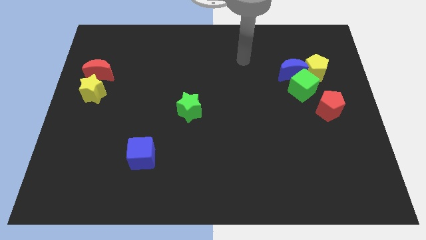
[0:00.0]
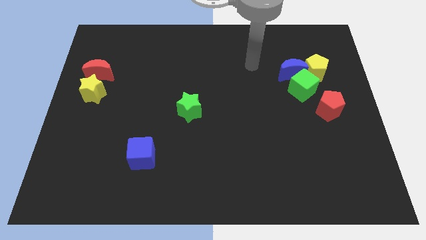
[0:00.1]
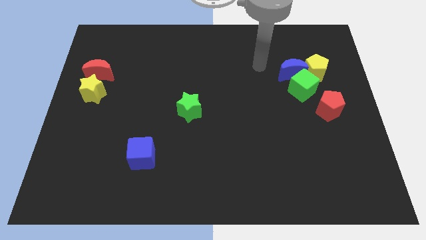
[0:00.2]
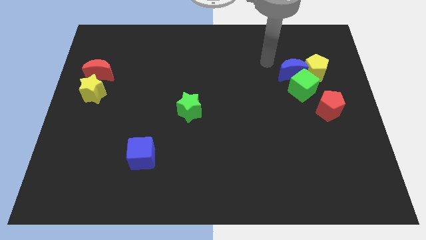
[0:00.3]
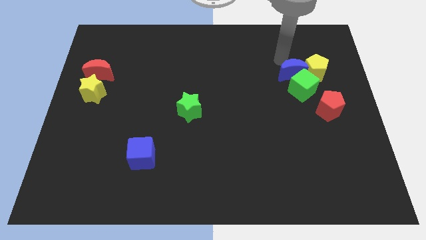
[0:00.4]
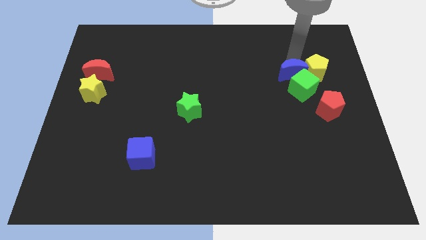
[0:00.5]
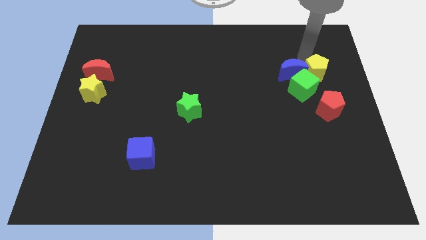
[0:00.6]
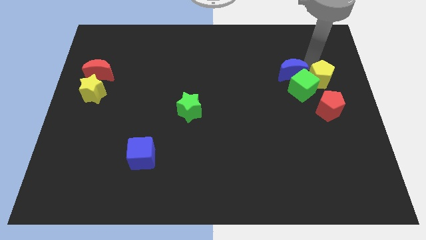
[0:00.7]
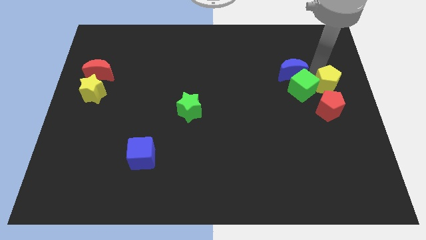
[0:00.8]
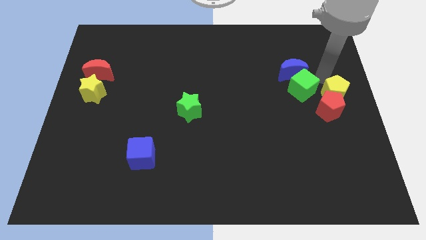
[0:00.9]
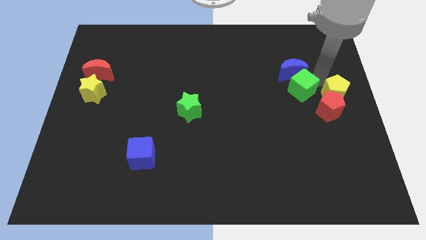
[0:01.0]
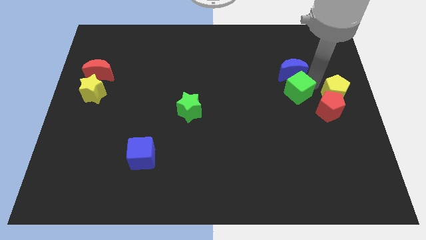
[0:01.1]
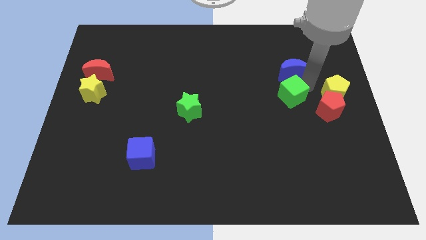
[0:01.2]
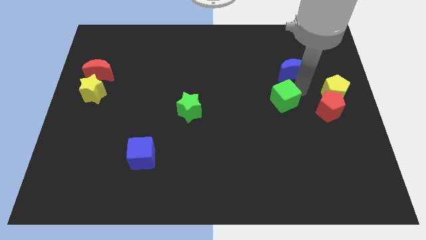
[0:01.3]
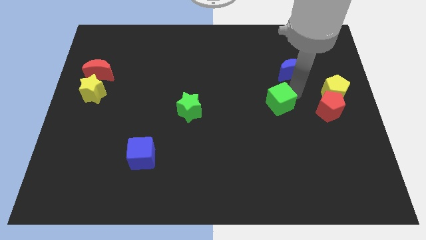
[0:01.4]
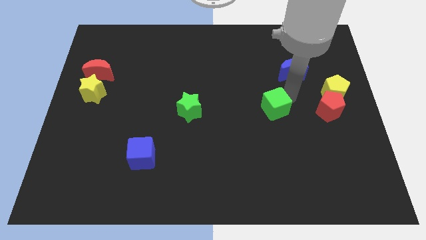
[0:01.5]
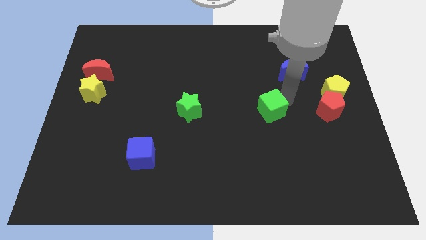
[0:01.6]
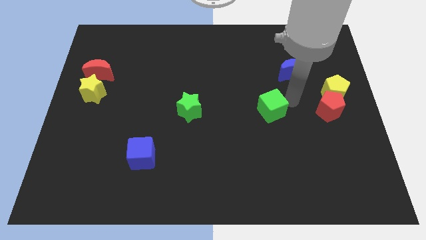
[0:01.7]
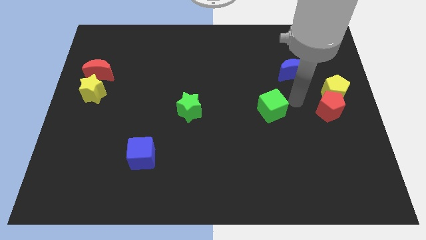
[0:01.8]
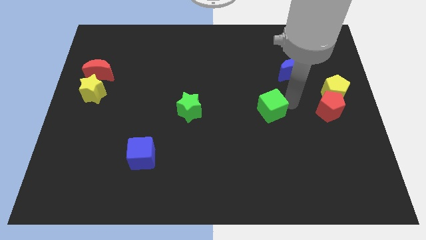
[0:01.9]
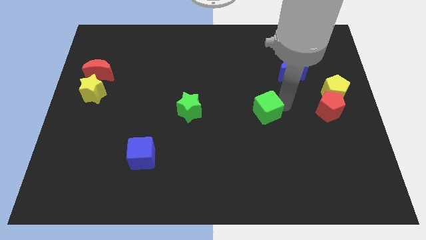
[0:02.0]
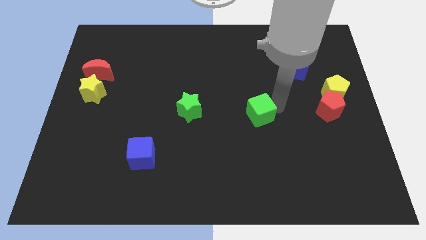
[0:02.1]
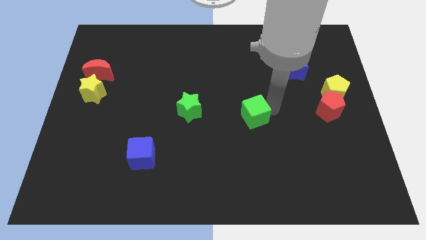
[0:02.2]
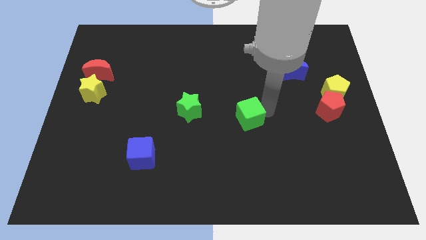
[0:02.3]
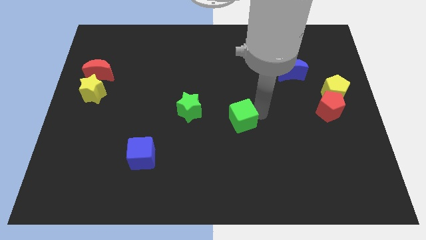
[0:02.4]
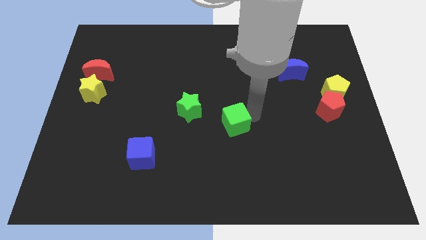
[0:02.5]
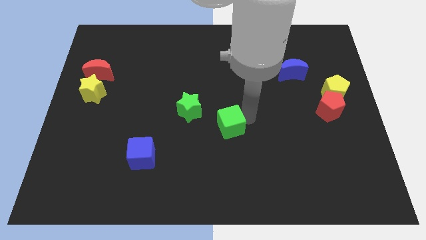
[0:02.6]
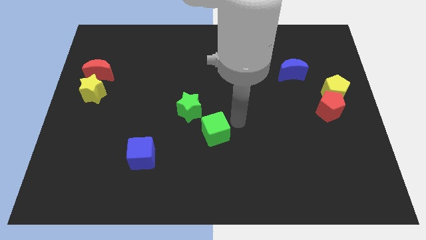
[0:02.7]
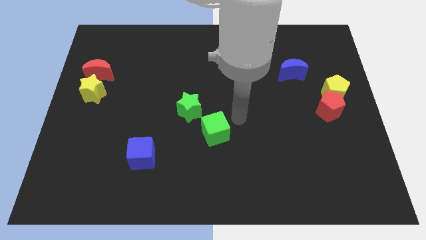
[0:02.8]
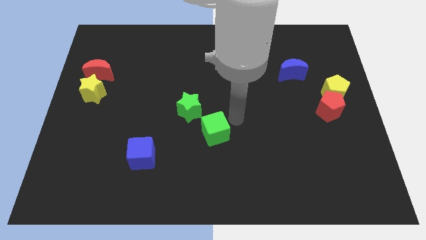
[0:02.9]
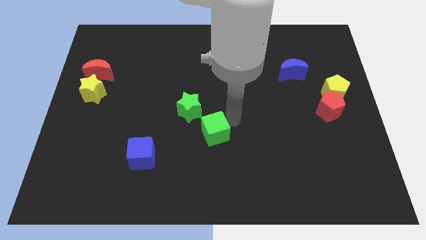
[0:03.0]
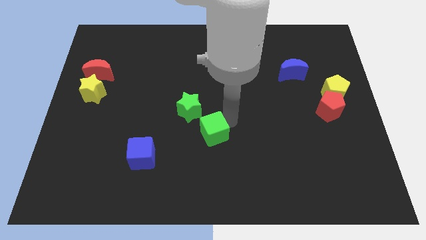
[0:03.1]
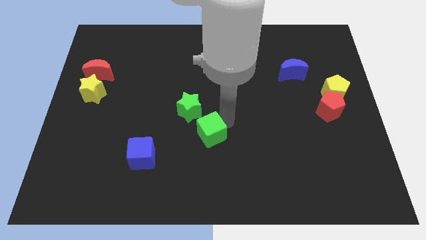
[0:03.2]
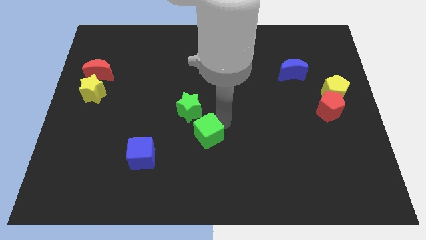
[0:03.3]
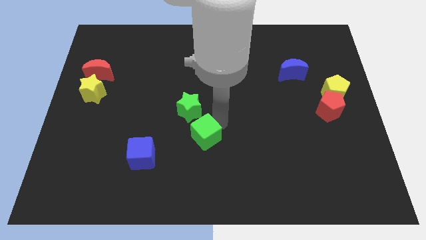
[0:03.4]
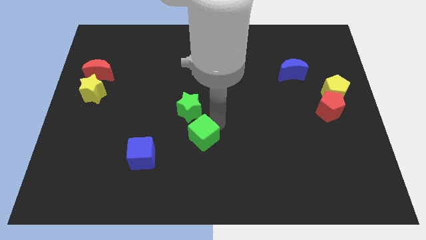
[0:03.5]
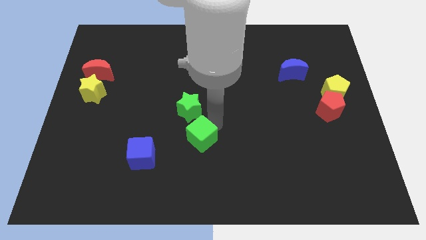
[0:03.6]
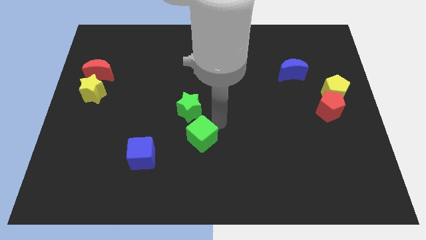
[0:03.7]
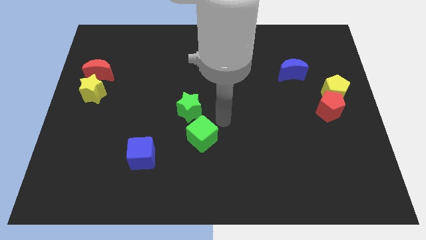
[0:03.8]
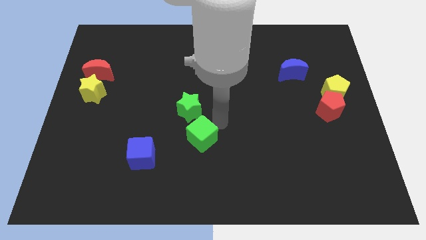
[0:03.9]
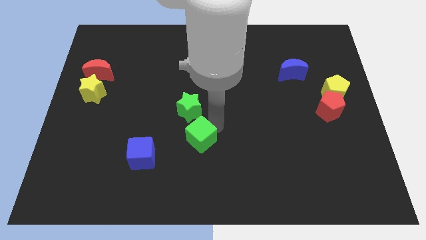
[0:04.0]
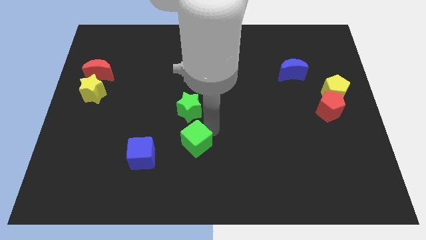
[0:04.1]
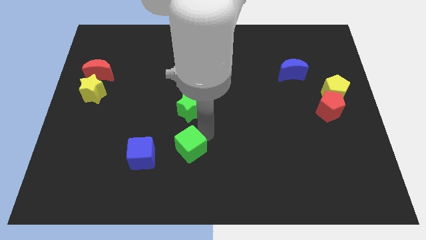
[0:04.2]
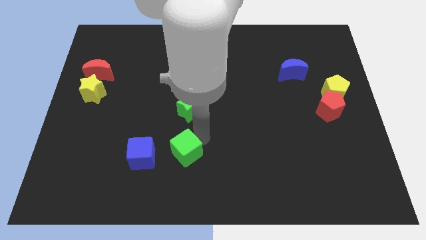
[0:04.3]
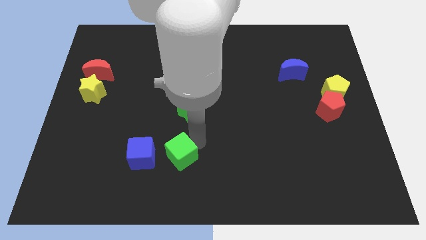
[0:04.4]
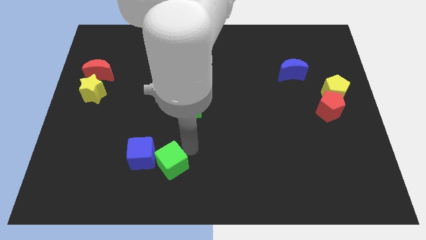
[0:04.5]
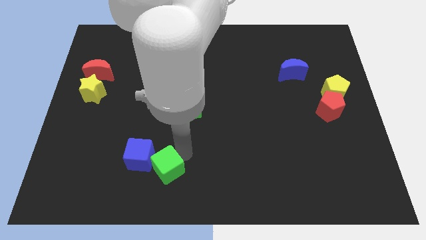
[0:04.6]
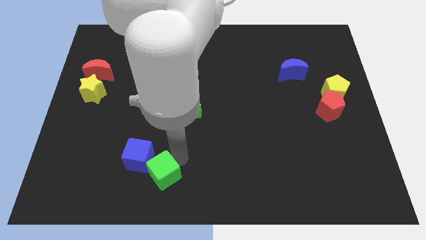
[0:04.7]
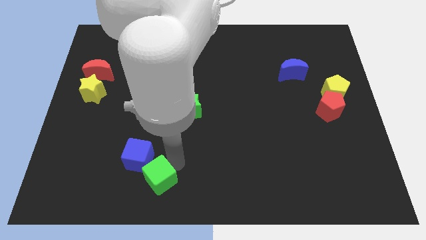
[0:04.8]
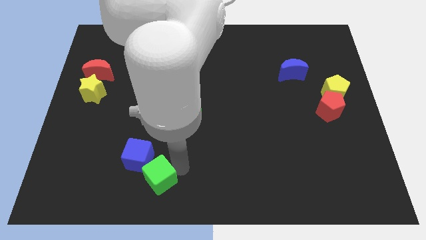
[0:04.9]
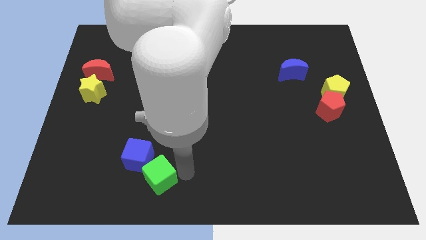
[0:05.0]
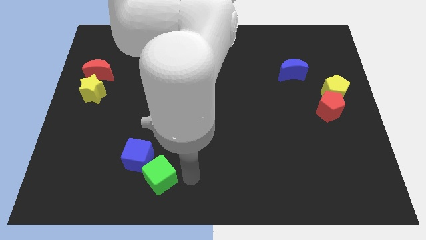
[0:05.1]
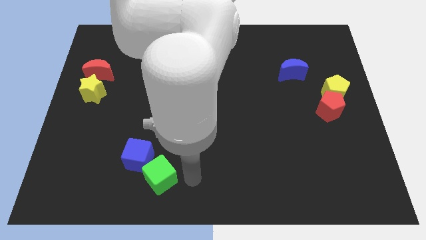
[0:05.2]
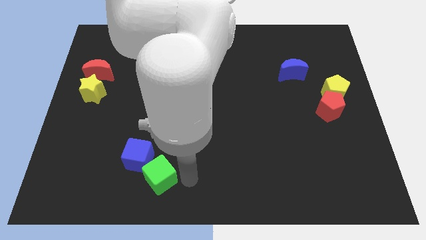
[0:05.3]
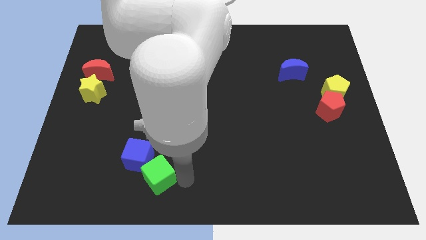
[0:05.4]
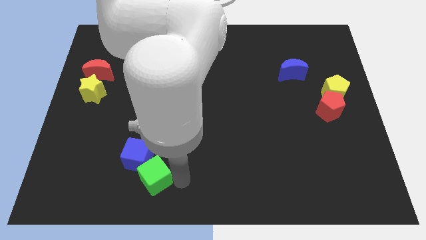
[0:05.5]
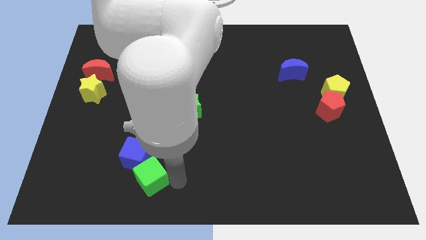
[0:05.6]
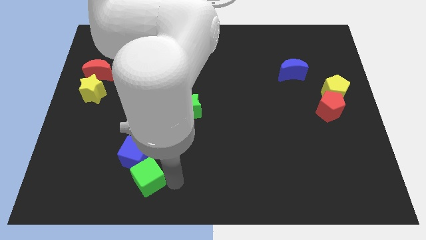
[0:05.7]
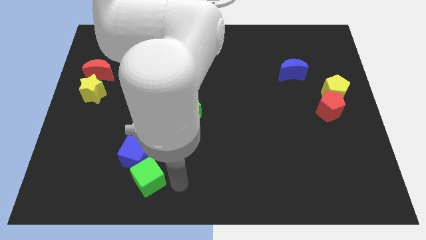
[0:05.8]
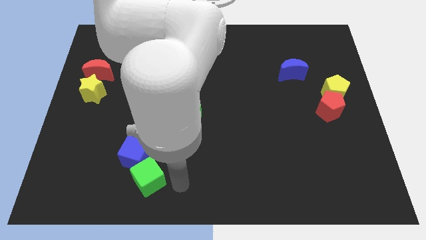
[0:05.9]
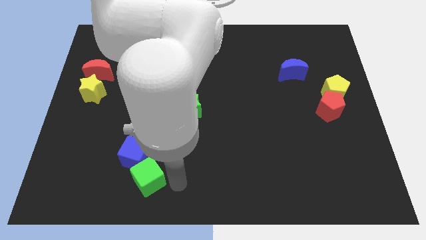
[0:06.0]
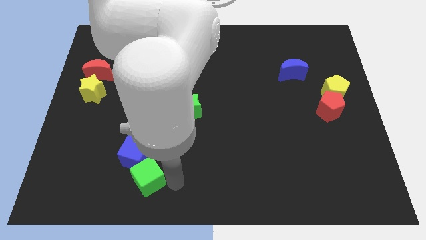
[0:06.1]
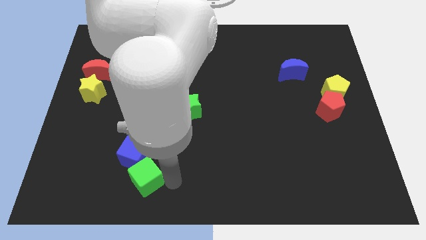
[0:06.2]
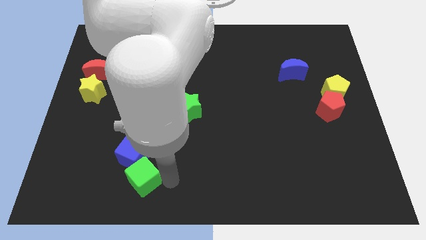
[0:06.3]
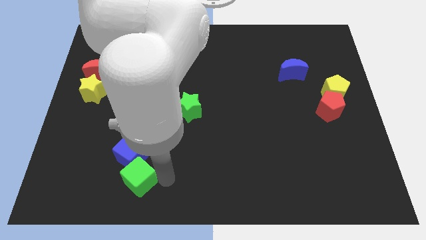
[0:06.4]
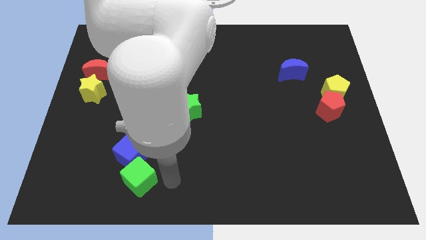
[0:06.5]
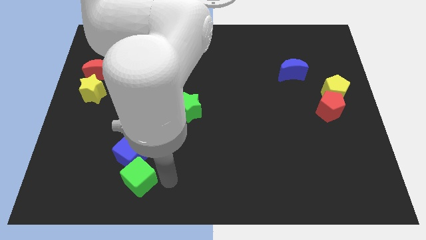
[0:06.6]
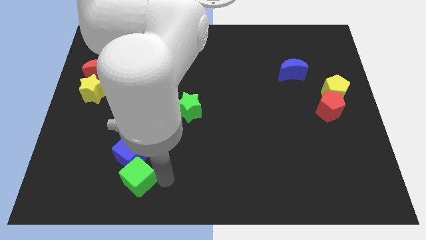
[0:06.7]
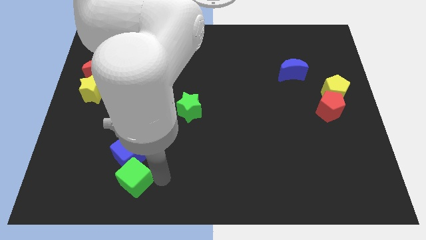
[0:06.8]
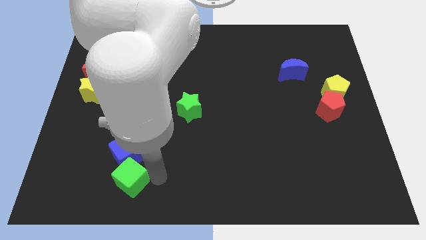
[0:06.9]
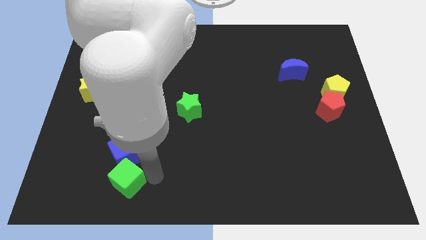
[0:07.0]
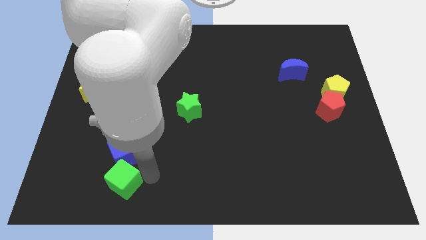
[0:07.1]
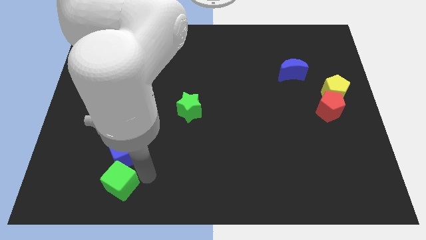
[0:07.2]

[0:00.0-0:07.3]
push the green cube to the bottom left of the blue cube
